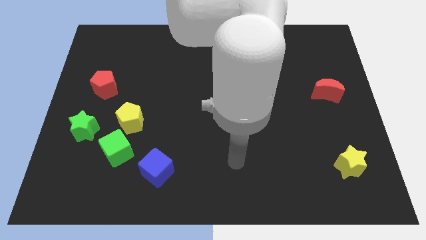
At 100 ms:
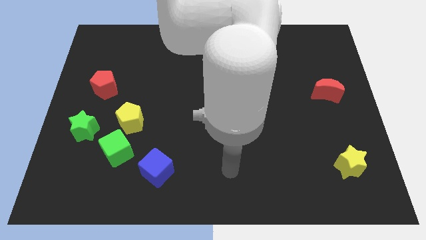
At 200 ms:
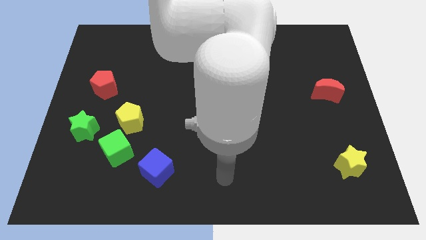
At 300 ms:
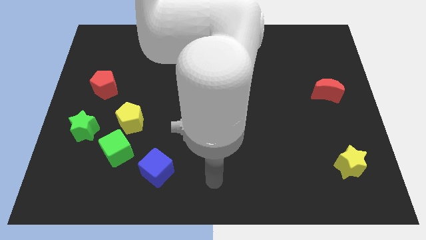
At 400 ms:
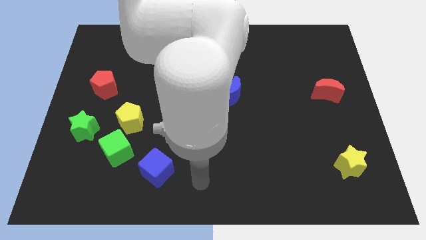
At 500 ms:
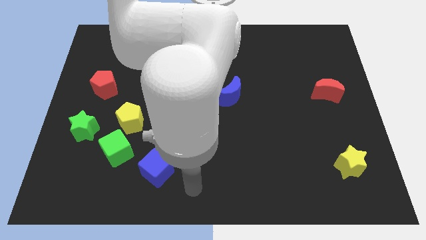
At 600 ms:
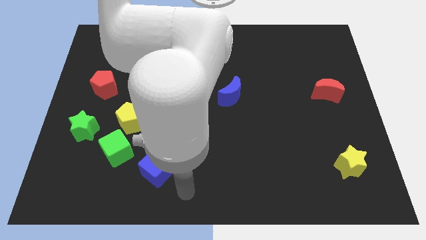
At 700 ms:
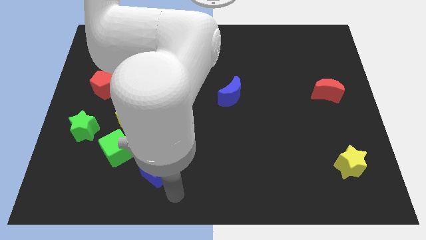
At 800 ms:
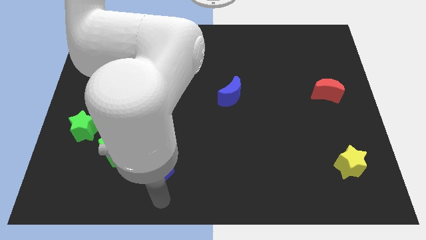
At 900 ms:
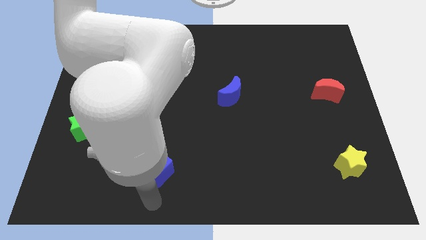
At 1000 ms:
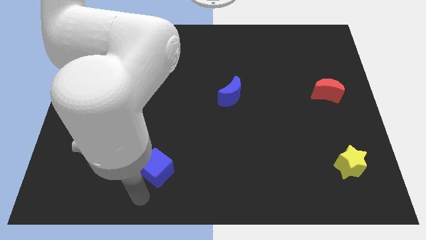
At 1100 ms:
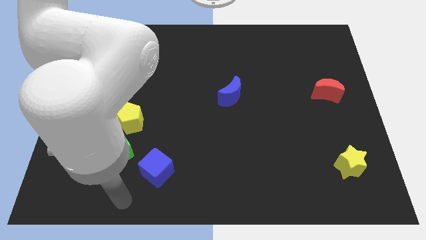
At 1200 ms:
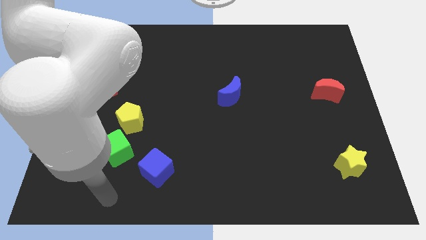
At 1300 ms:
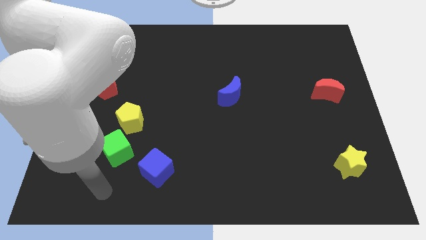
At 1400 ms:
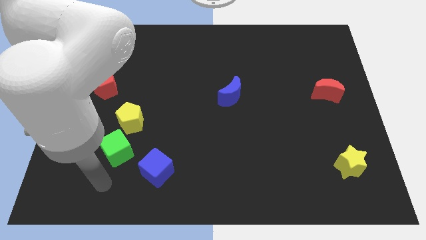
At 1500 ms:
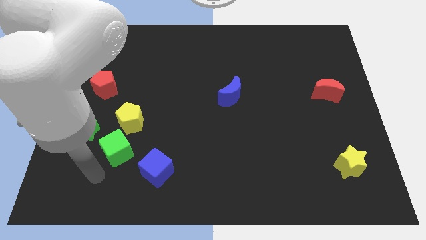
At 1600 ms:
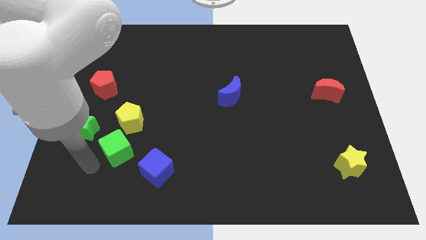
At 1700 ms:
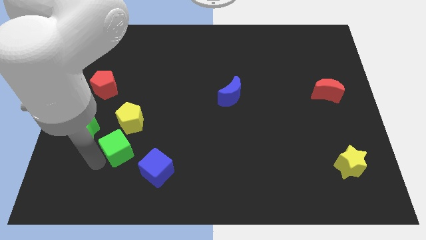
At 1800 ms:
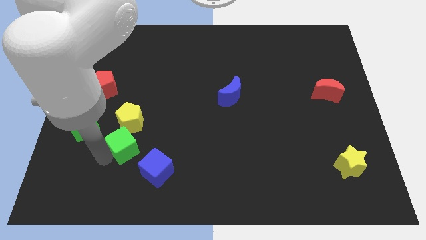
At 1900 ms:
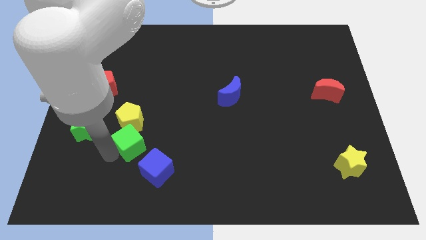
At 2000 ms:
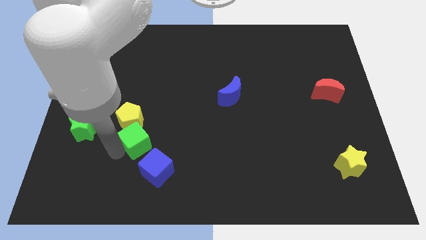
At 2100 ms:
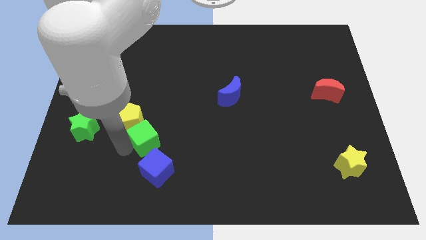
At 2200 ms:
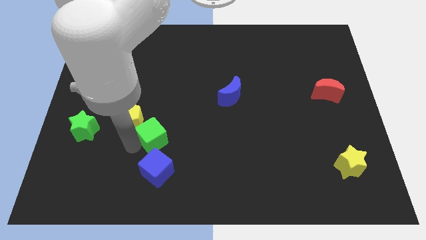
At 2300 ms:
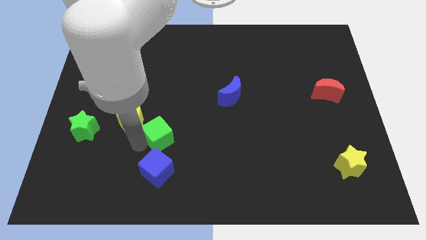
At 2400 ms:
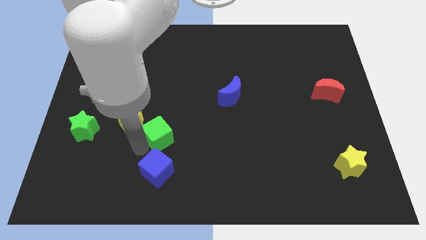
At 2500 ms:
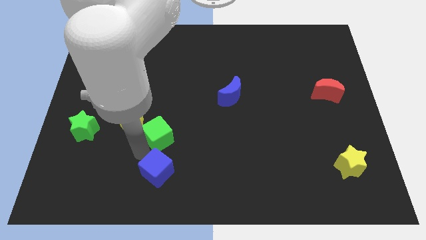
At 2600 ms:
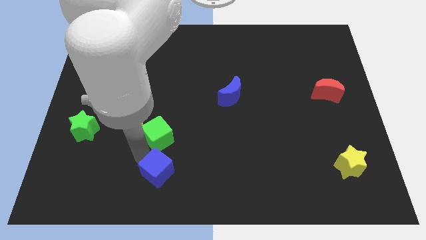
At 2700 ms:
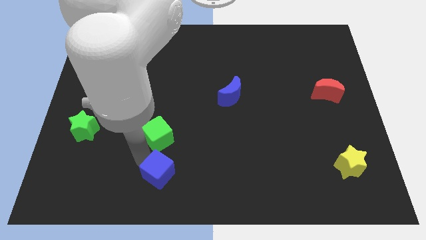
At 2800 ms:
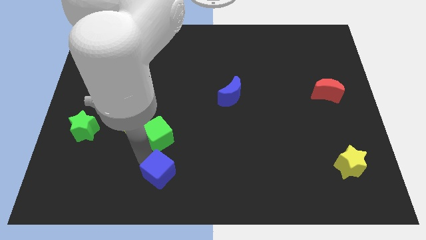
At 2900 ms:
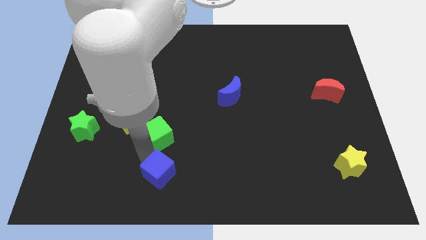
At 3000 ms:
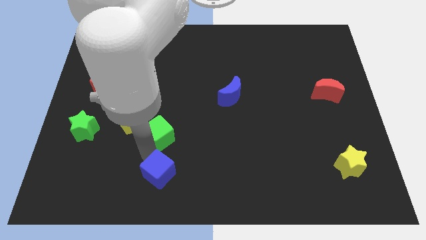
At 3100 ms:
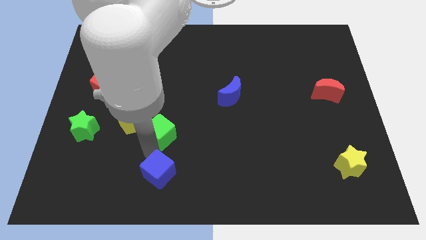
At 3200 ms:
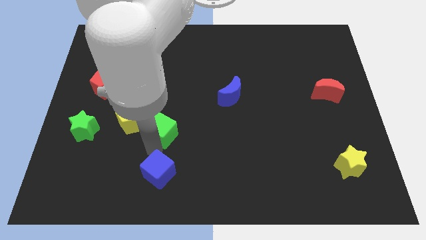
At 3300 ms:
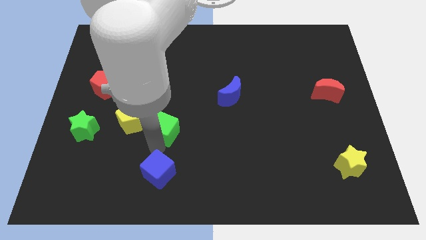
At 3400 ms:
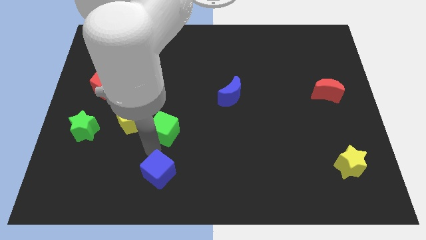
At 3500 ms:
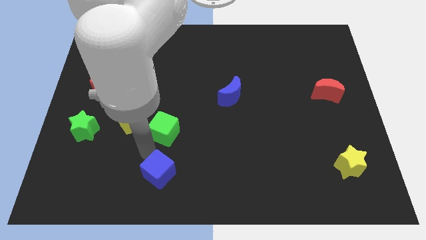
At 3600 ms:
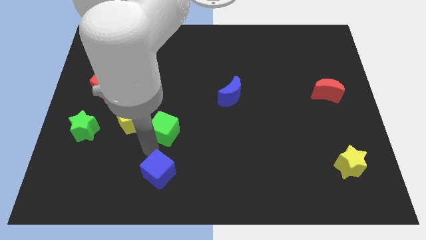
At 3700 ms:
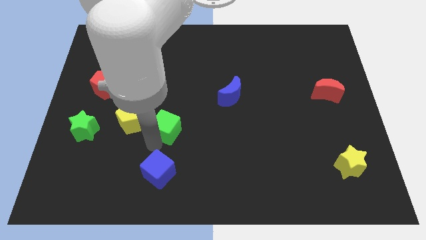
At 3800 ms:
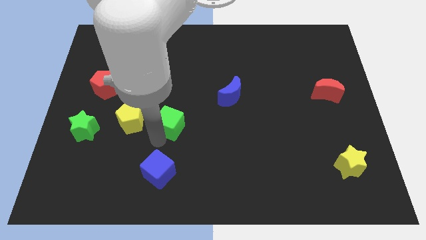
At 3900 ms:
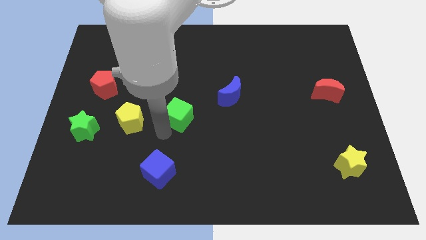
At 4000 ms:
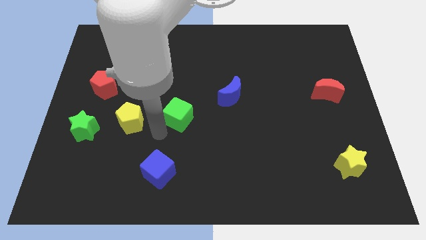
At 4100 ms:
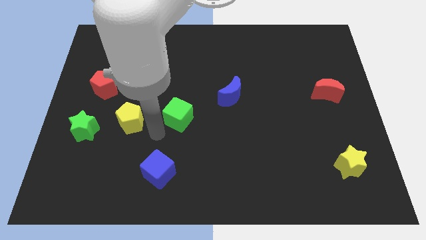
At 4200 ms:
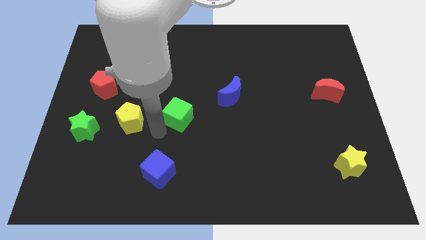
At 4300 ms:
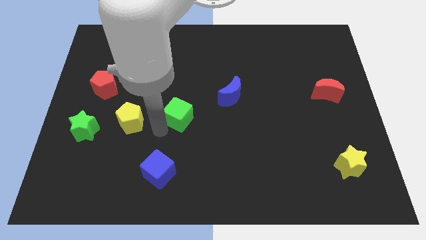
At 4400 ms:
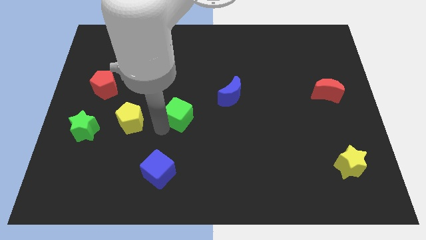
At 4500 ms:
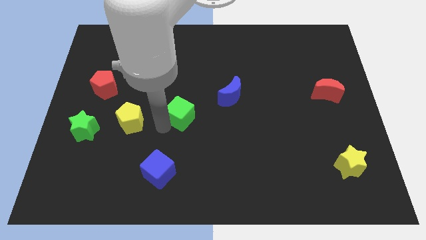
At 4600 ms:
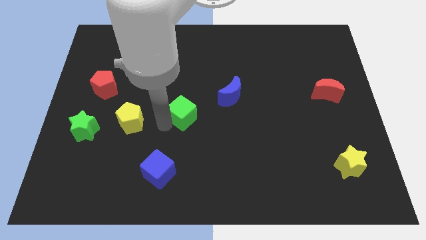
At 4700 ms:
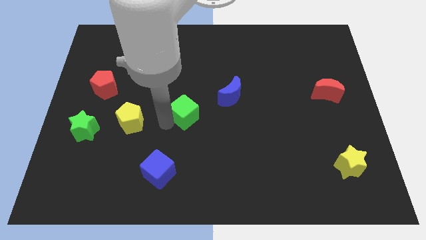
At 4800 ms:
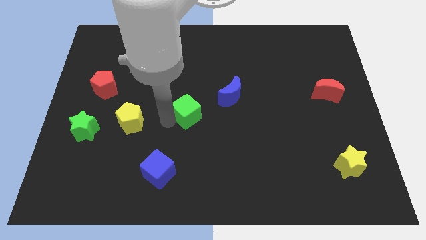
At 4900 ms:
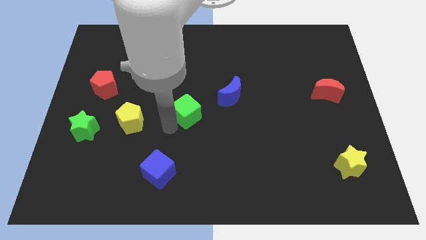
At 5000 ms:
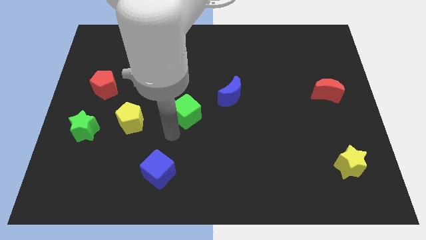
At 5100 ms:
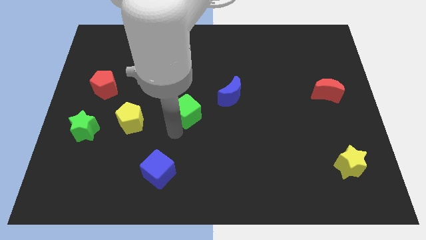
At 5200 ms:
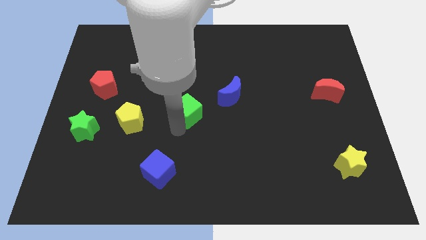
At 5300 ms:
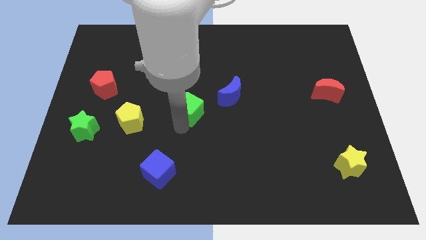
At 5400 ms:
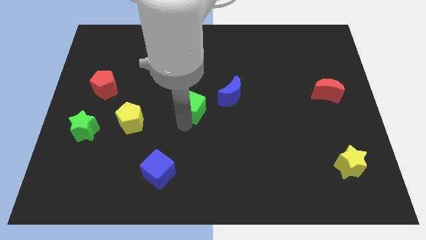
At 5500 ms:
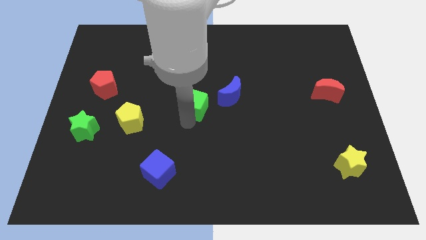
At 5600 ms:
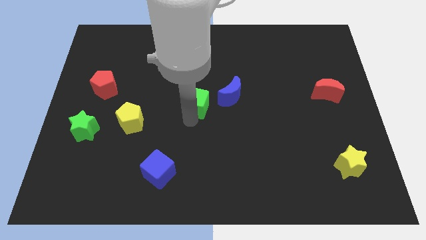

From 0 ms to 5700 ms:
move the green cube diagonally upwards and to the right

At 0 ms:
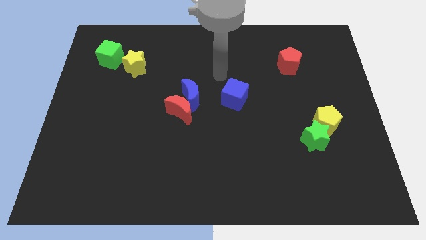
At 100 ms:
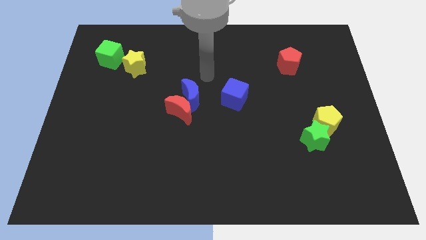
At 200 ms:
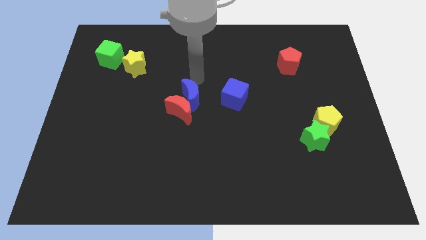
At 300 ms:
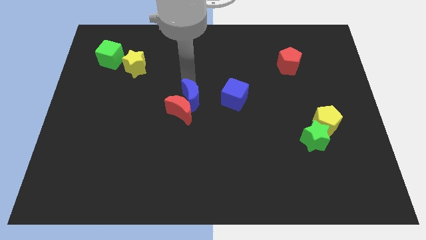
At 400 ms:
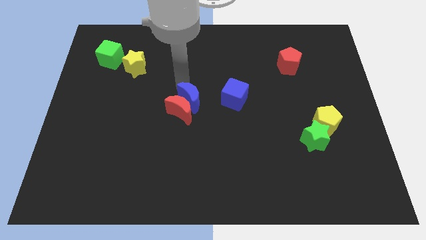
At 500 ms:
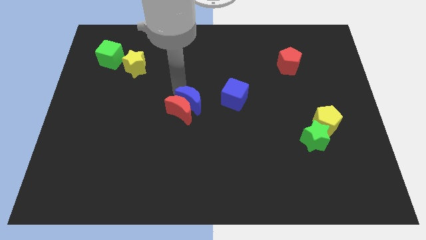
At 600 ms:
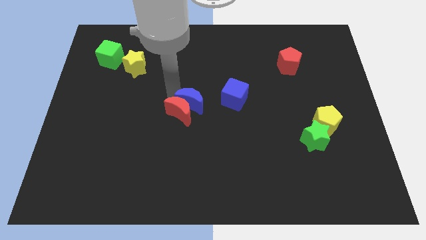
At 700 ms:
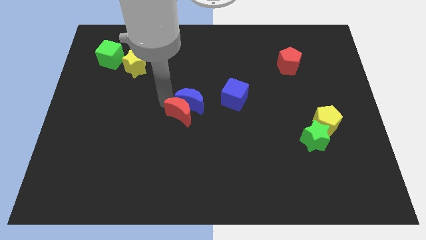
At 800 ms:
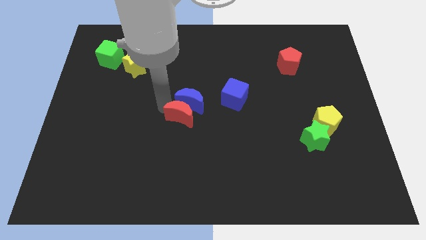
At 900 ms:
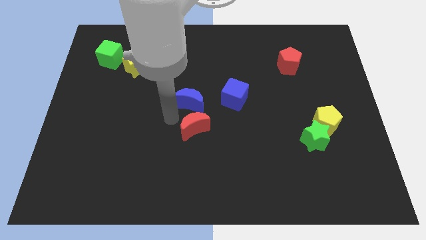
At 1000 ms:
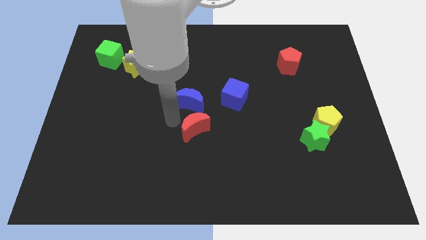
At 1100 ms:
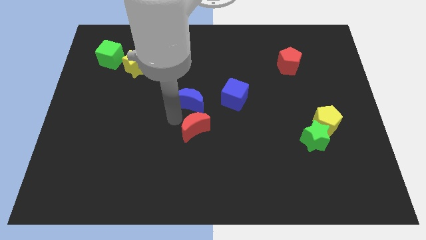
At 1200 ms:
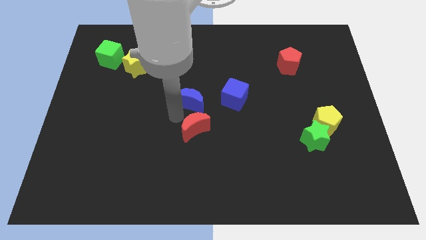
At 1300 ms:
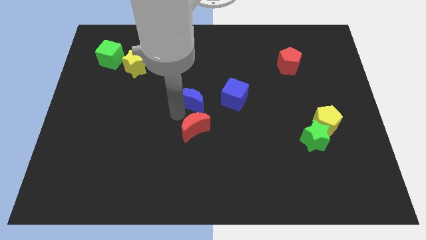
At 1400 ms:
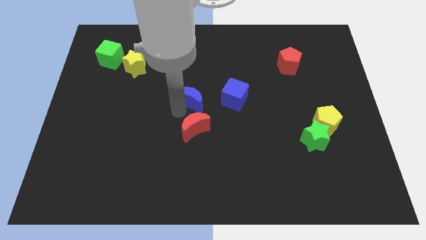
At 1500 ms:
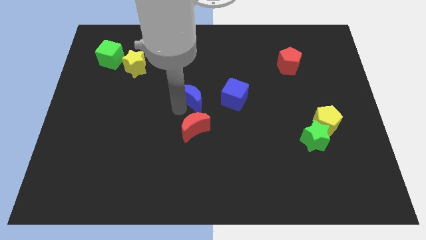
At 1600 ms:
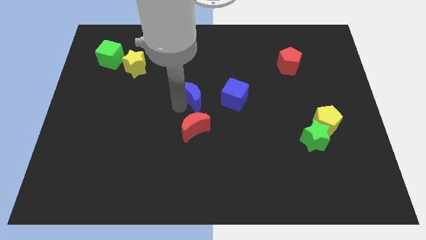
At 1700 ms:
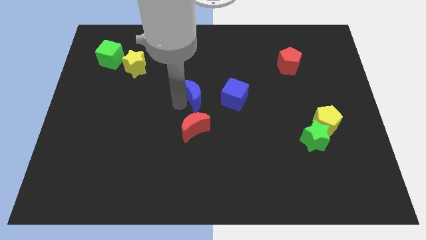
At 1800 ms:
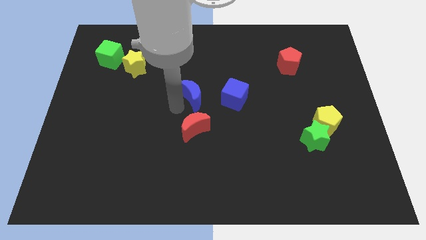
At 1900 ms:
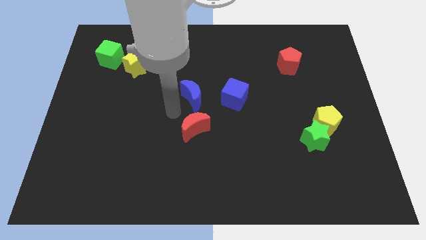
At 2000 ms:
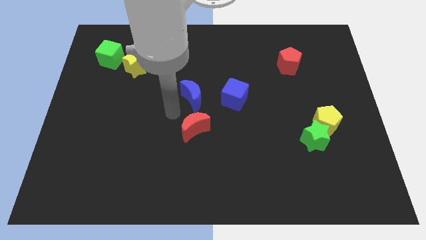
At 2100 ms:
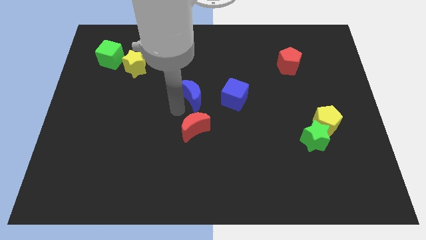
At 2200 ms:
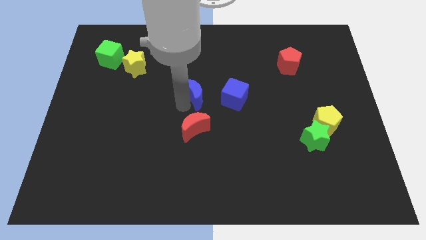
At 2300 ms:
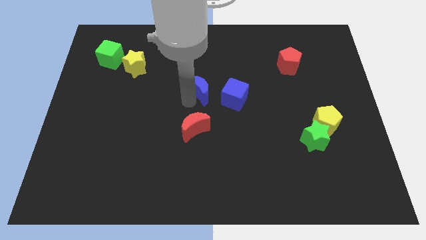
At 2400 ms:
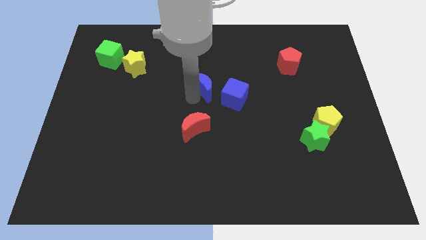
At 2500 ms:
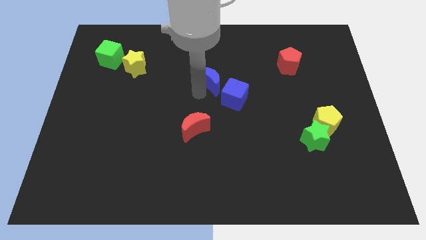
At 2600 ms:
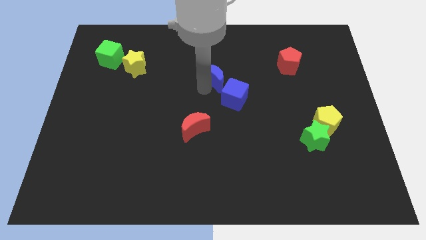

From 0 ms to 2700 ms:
slightly slide the blue moon upwards and then to the right

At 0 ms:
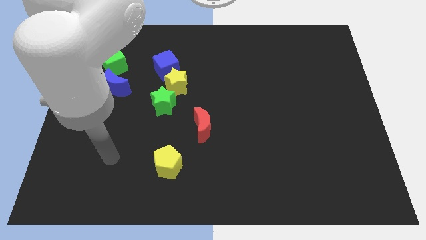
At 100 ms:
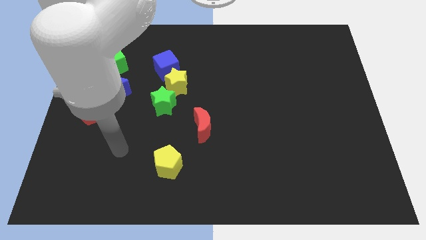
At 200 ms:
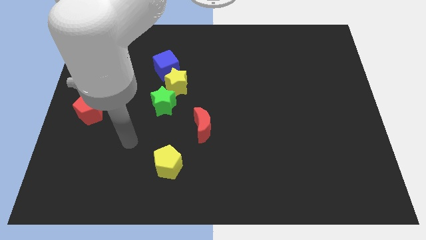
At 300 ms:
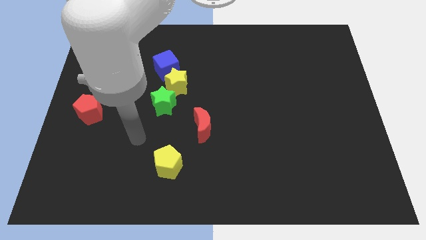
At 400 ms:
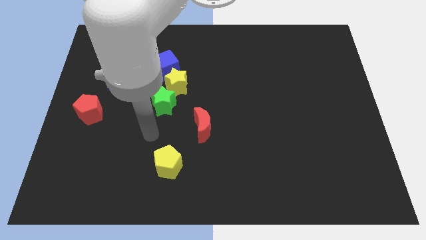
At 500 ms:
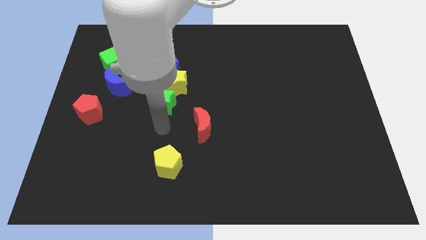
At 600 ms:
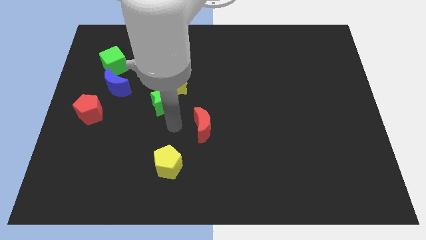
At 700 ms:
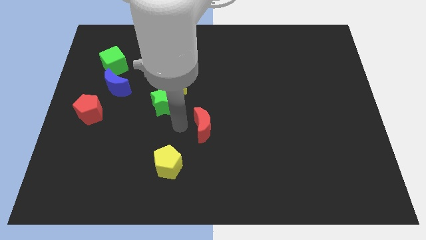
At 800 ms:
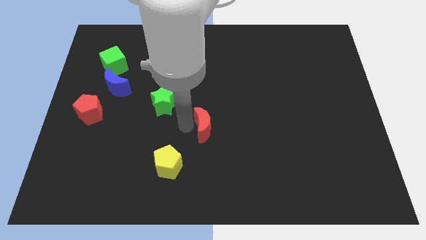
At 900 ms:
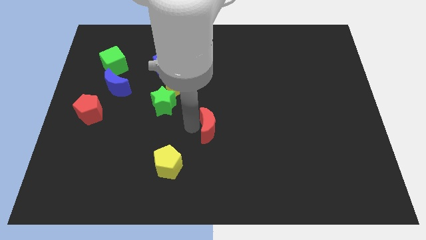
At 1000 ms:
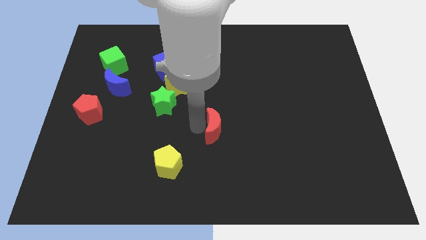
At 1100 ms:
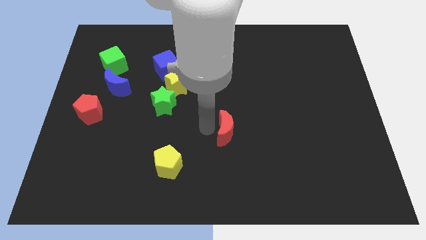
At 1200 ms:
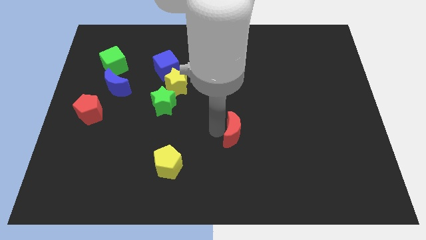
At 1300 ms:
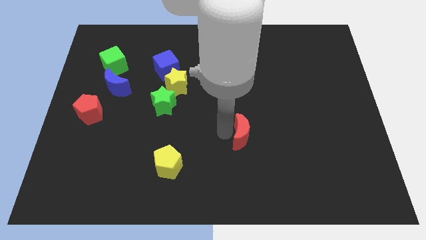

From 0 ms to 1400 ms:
slightly slide the red moon to the right
